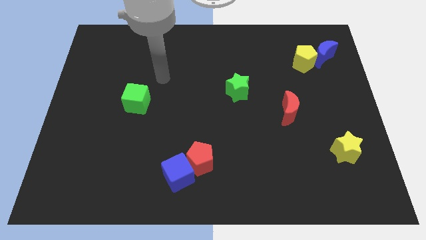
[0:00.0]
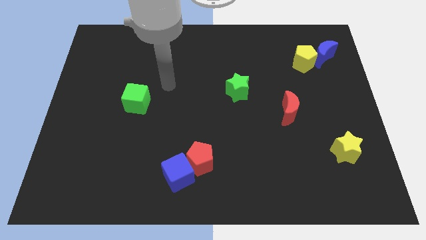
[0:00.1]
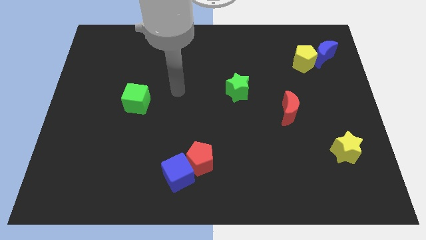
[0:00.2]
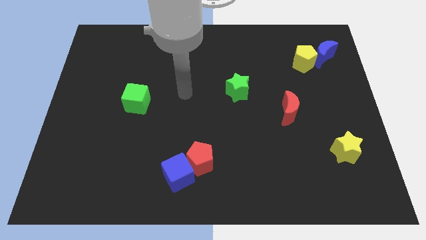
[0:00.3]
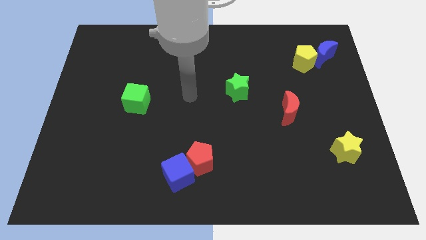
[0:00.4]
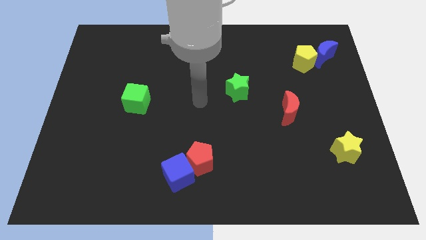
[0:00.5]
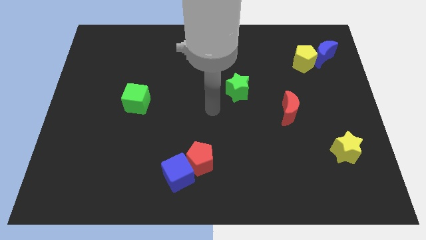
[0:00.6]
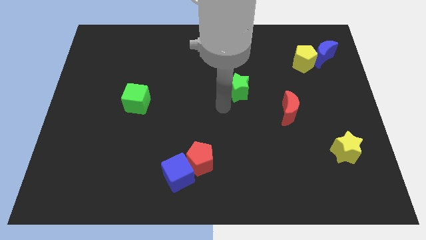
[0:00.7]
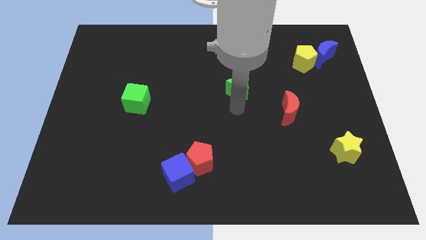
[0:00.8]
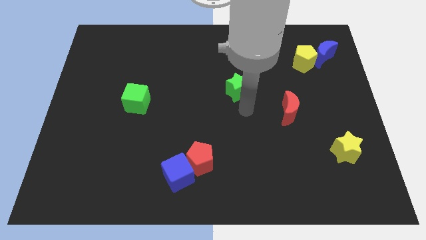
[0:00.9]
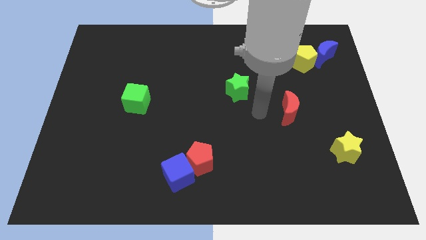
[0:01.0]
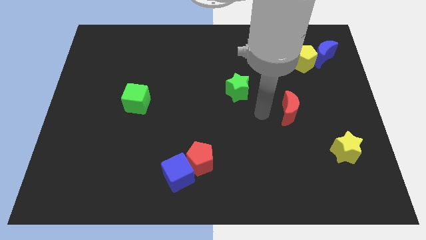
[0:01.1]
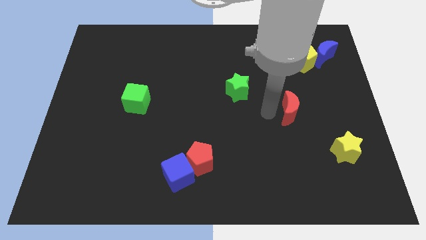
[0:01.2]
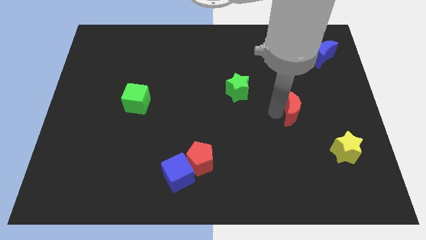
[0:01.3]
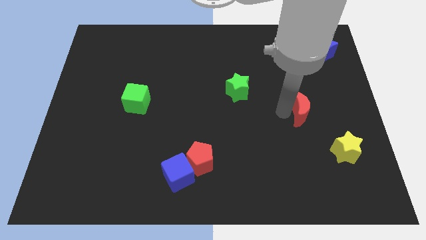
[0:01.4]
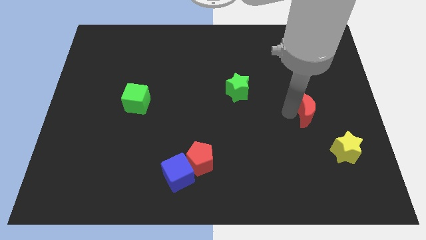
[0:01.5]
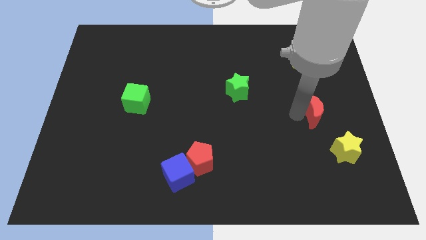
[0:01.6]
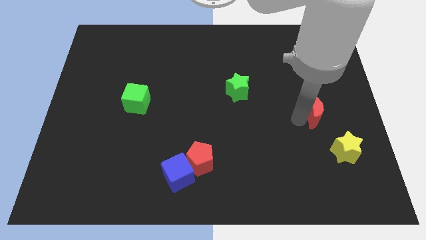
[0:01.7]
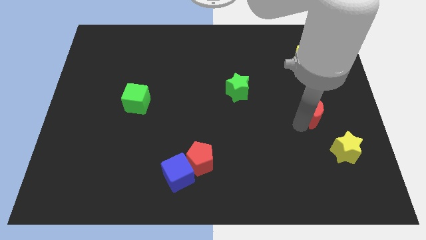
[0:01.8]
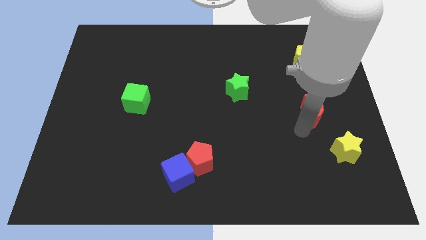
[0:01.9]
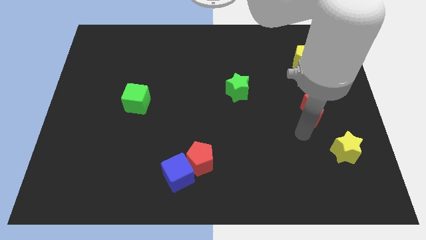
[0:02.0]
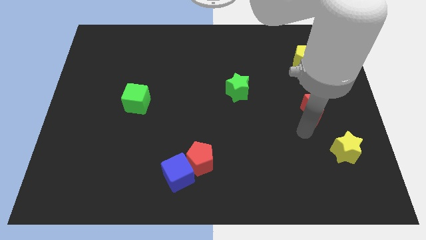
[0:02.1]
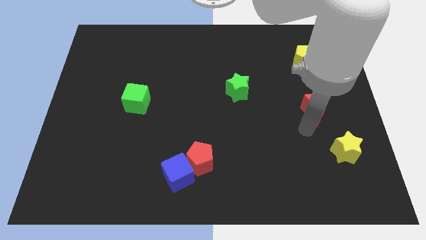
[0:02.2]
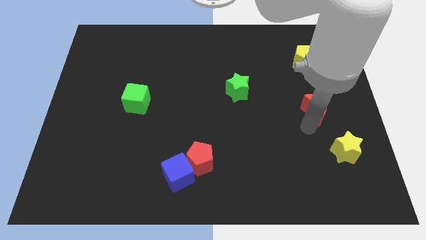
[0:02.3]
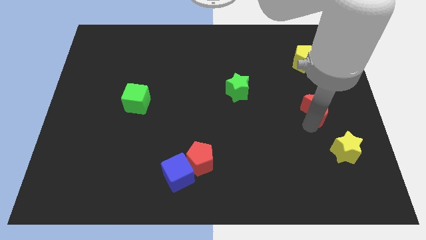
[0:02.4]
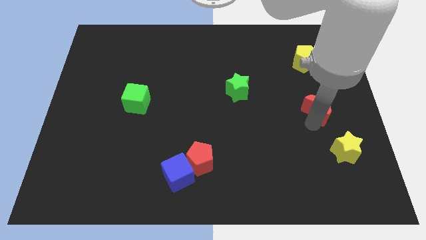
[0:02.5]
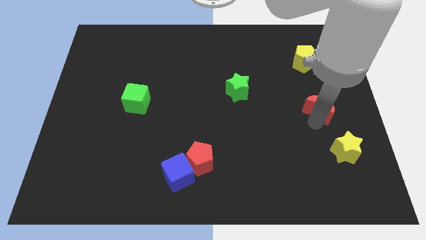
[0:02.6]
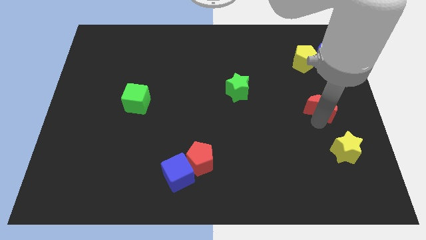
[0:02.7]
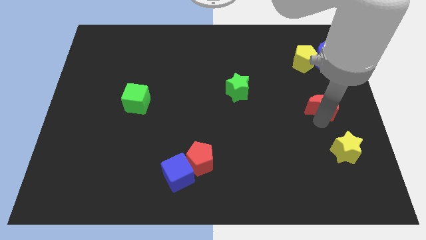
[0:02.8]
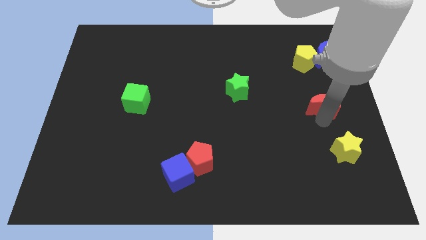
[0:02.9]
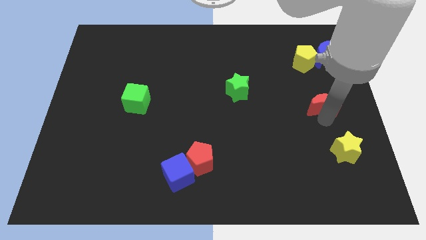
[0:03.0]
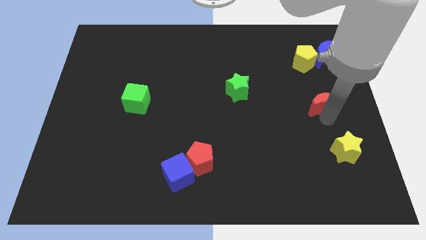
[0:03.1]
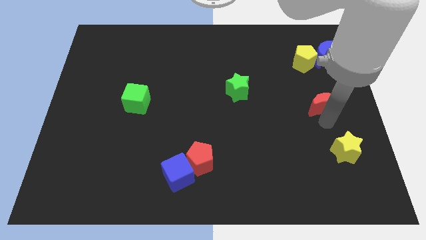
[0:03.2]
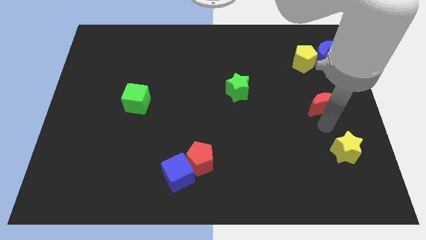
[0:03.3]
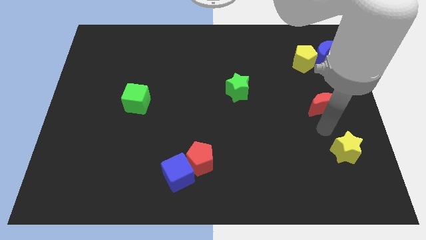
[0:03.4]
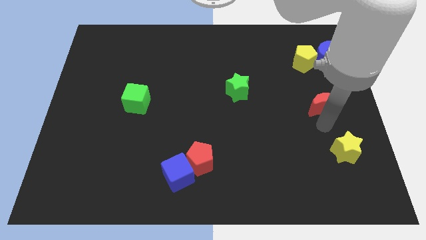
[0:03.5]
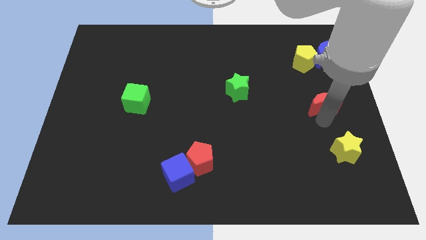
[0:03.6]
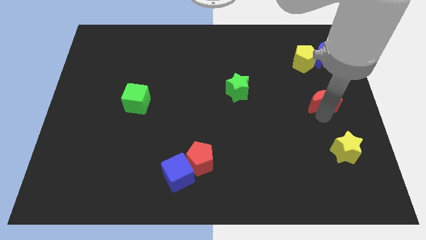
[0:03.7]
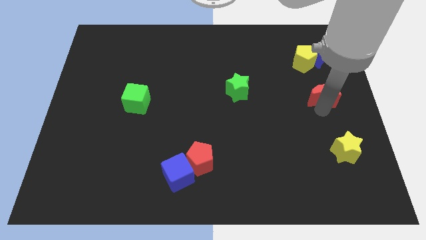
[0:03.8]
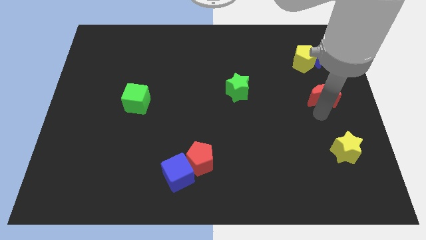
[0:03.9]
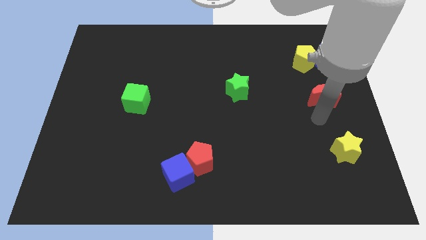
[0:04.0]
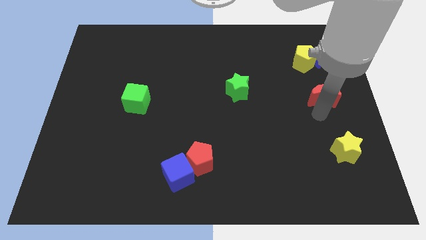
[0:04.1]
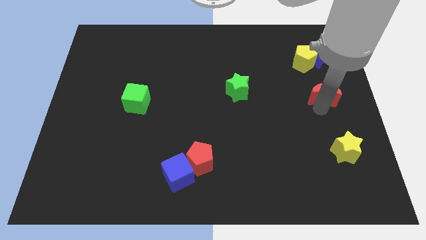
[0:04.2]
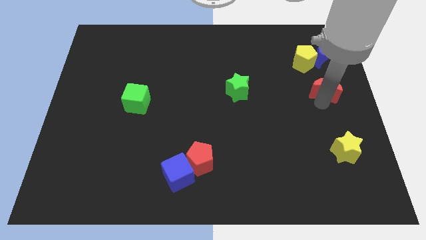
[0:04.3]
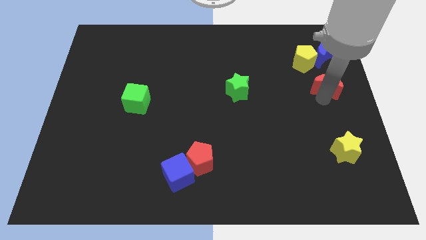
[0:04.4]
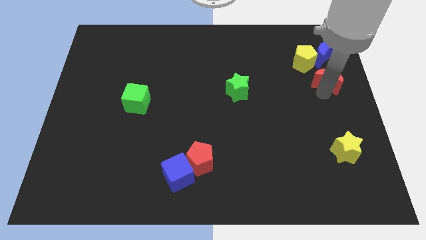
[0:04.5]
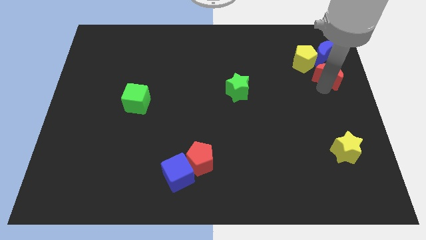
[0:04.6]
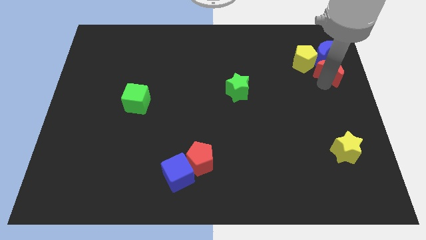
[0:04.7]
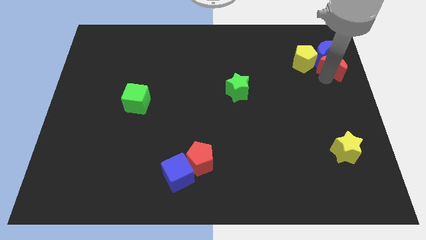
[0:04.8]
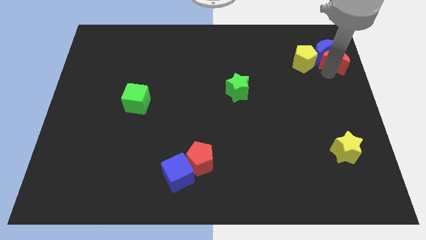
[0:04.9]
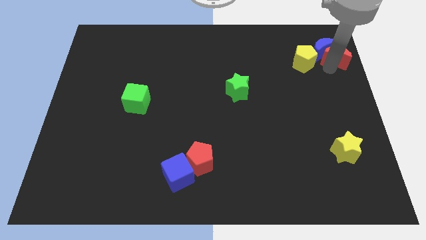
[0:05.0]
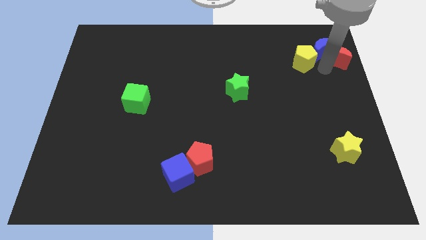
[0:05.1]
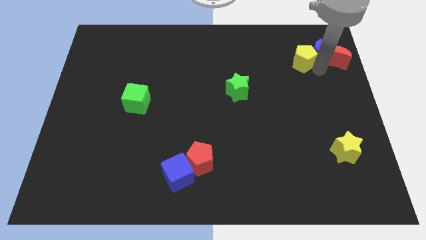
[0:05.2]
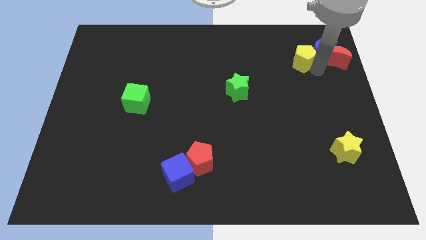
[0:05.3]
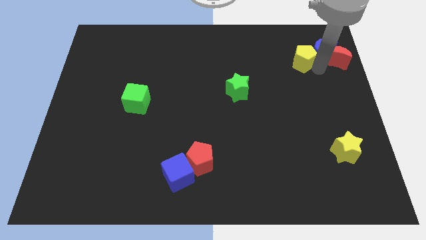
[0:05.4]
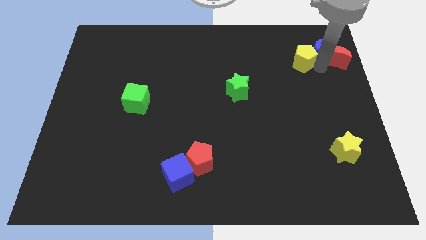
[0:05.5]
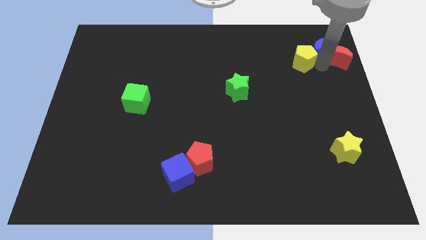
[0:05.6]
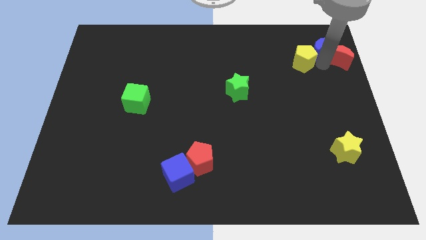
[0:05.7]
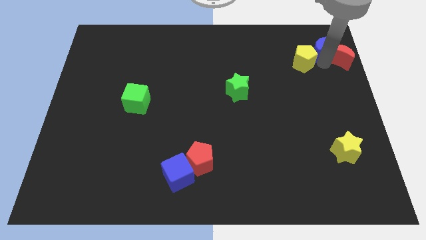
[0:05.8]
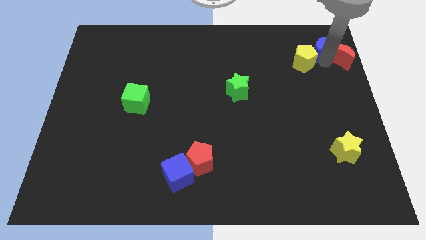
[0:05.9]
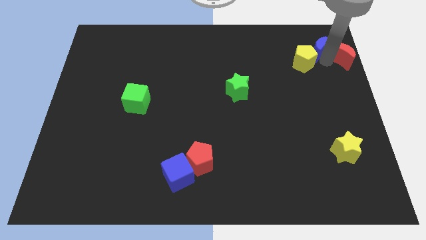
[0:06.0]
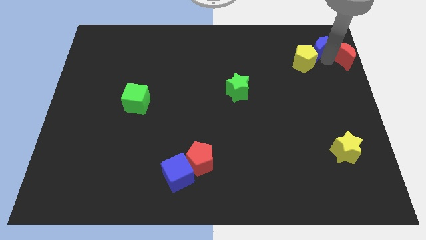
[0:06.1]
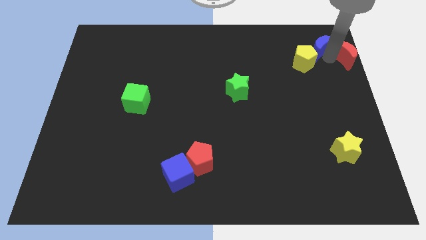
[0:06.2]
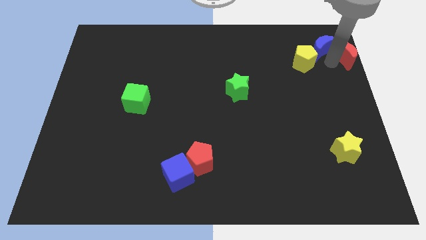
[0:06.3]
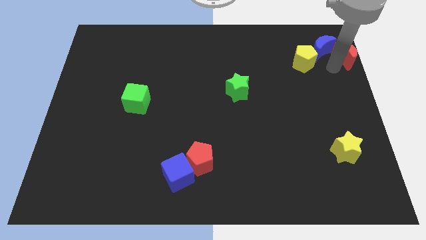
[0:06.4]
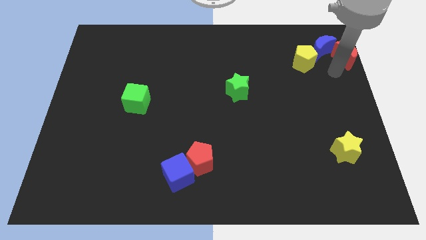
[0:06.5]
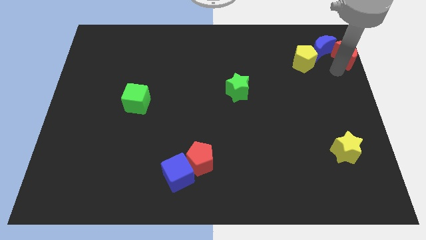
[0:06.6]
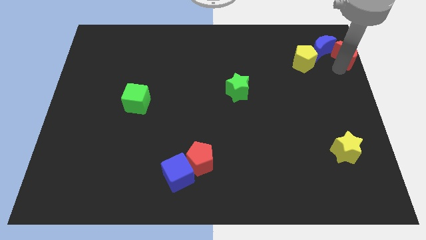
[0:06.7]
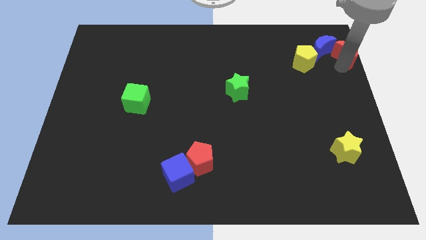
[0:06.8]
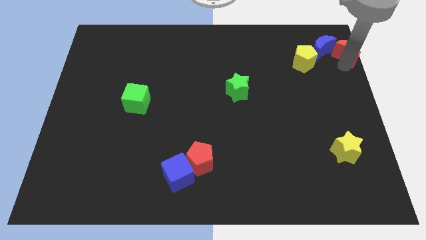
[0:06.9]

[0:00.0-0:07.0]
put the red moon to the upper right corner

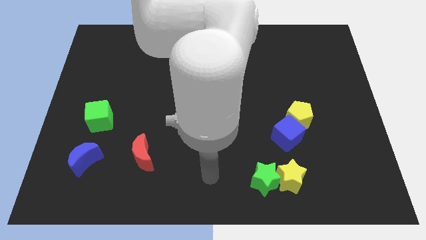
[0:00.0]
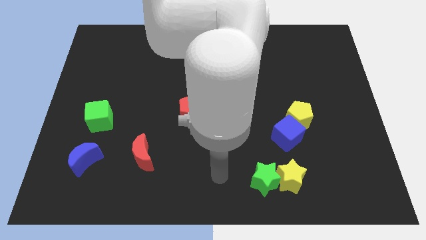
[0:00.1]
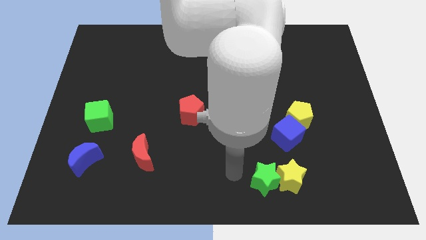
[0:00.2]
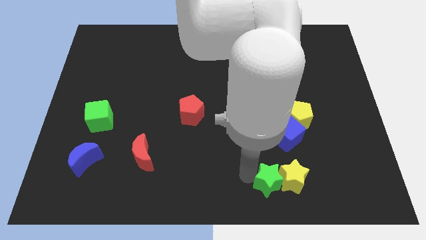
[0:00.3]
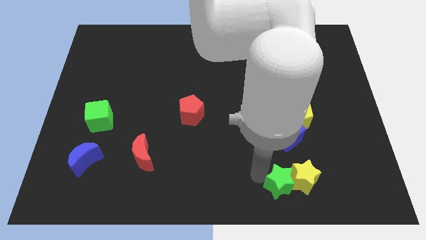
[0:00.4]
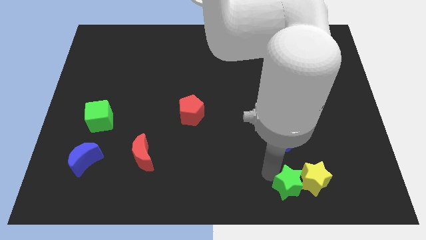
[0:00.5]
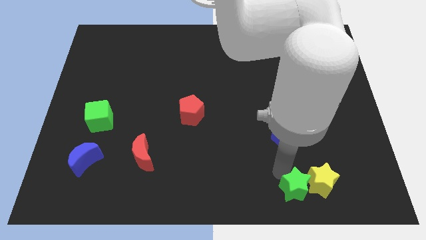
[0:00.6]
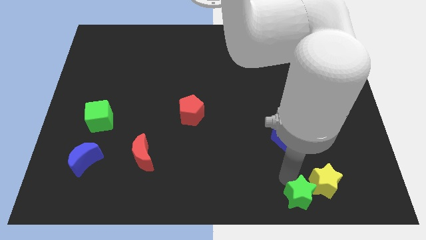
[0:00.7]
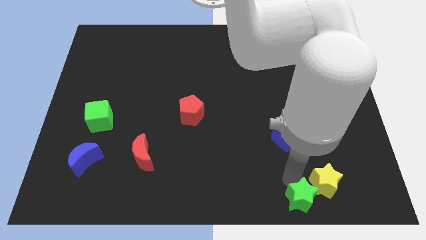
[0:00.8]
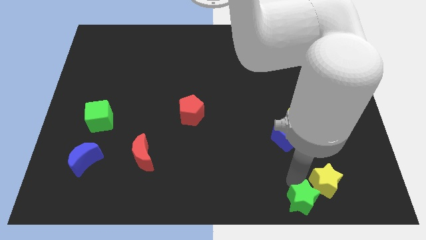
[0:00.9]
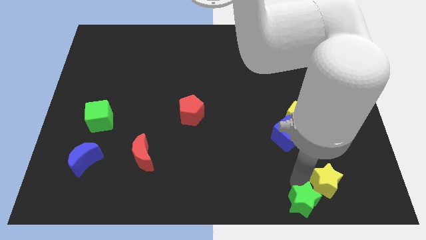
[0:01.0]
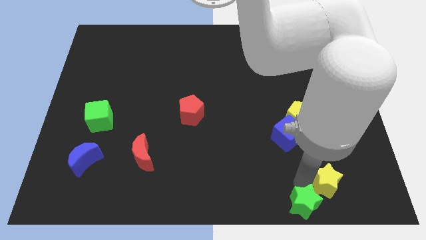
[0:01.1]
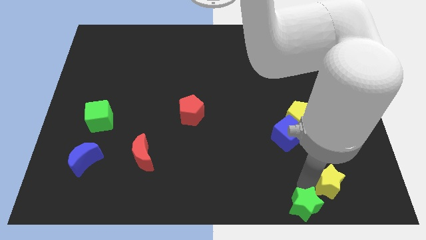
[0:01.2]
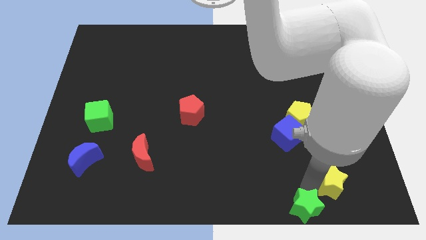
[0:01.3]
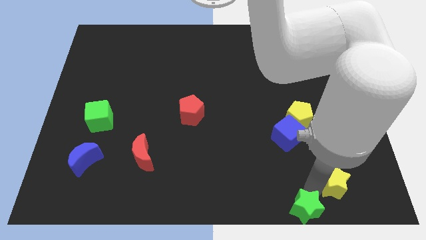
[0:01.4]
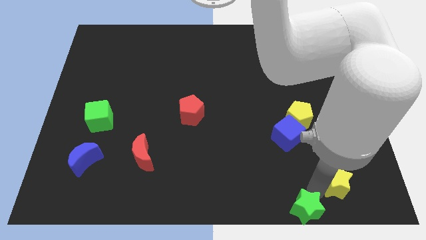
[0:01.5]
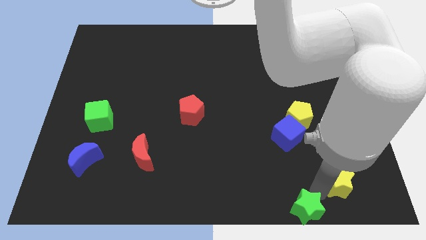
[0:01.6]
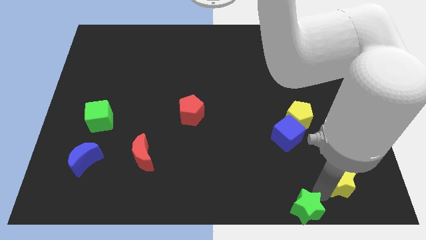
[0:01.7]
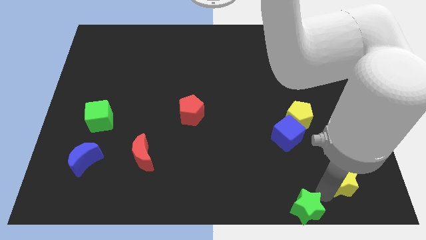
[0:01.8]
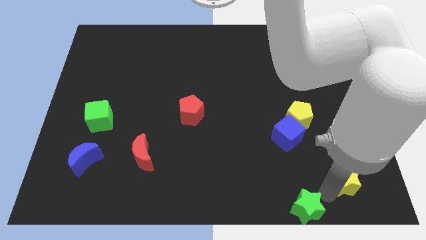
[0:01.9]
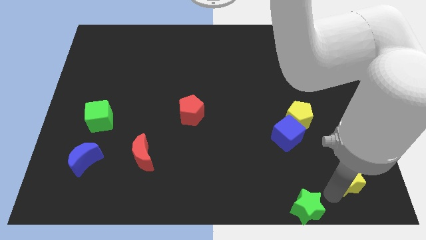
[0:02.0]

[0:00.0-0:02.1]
move the yellow star to the bottom right
